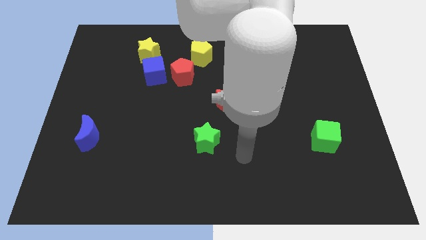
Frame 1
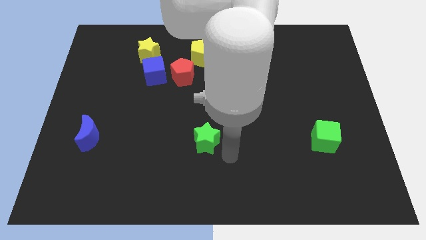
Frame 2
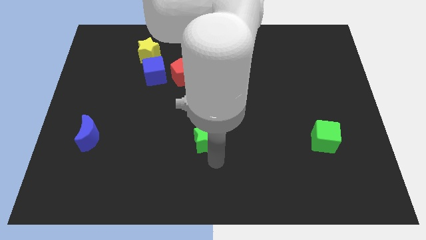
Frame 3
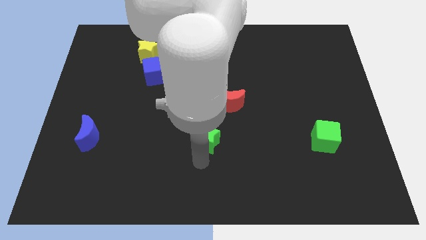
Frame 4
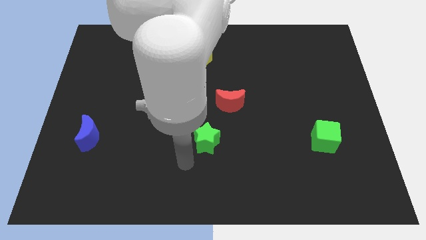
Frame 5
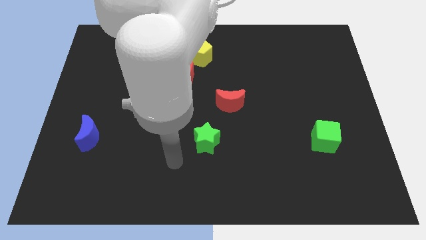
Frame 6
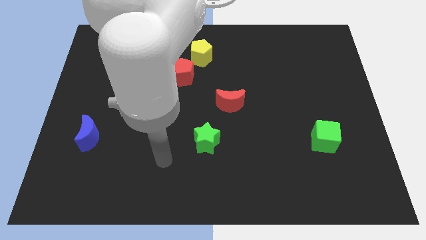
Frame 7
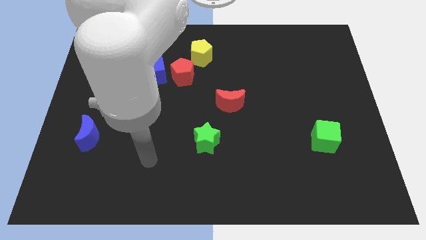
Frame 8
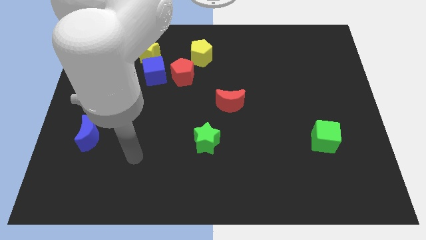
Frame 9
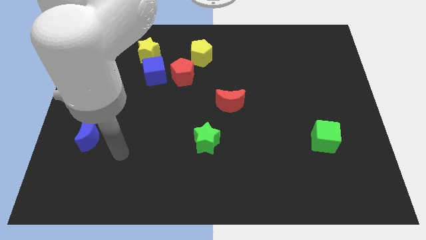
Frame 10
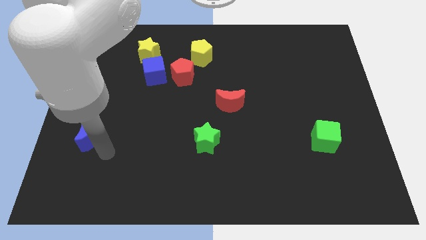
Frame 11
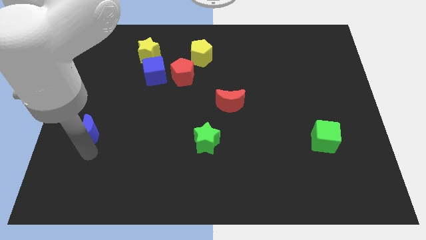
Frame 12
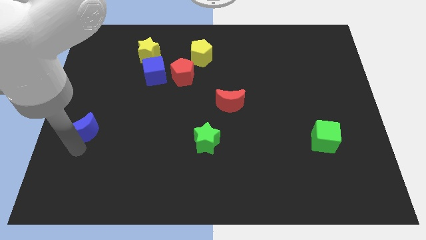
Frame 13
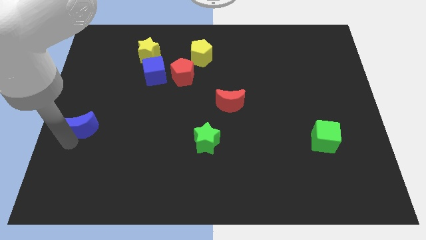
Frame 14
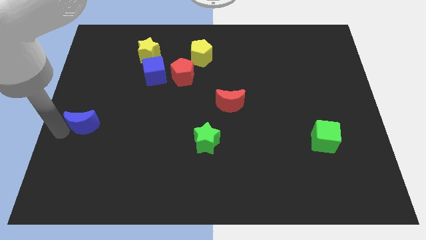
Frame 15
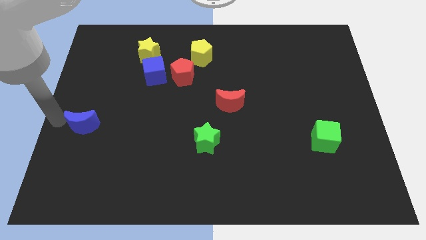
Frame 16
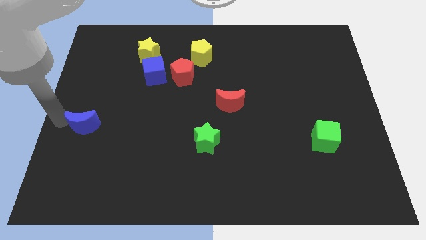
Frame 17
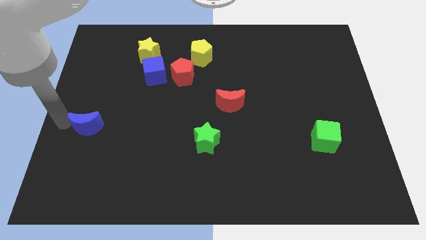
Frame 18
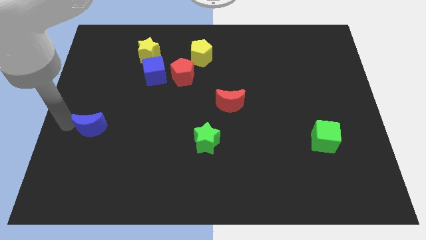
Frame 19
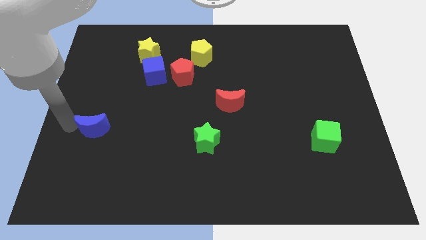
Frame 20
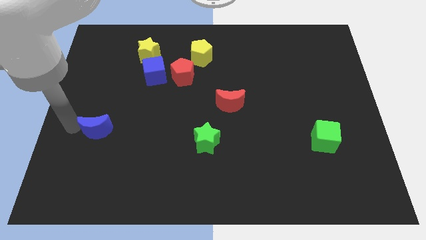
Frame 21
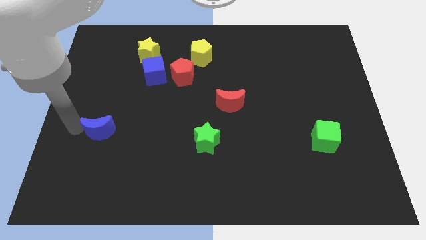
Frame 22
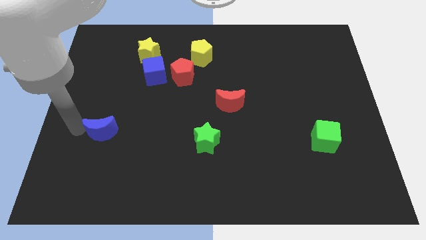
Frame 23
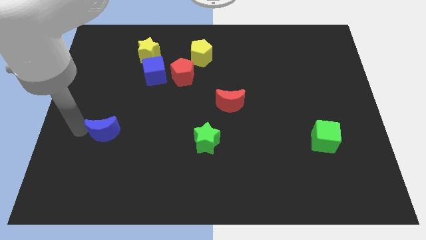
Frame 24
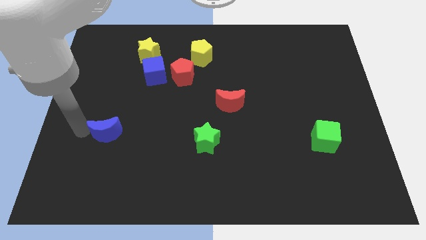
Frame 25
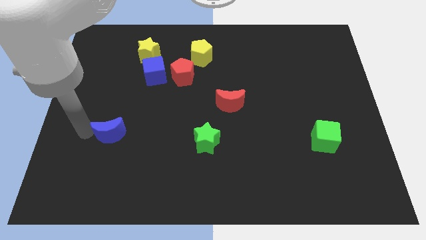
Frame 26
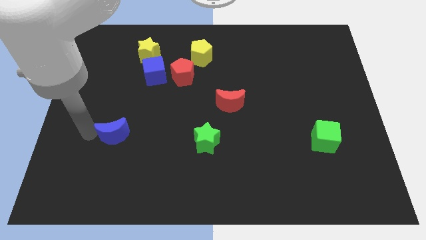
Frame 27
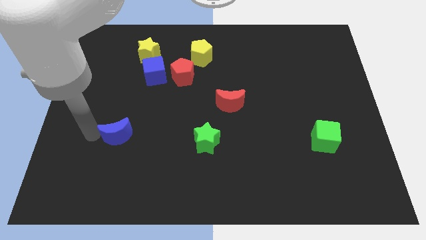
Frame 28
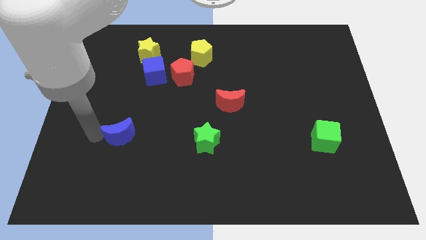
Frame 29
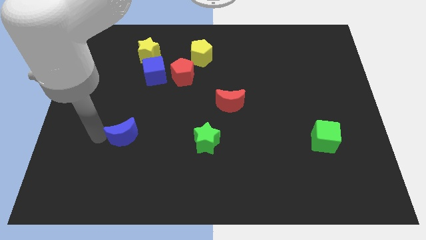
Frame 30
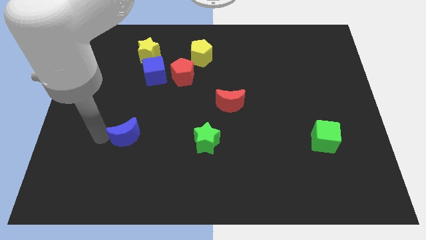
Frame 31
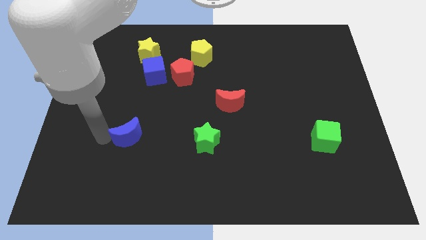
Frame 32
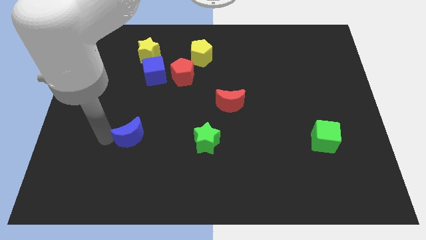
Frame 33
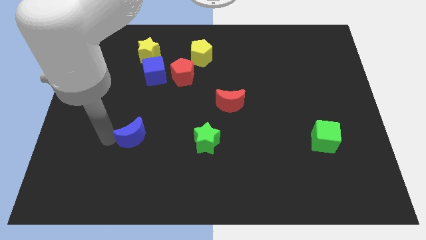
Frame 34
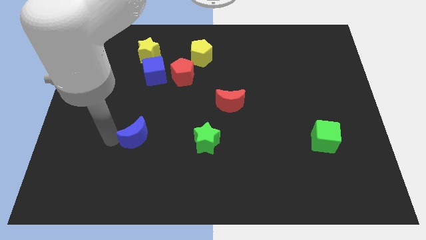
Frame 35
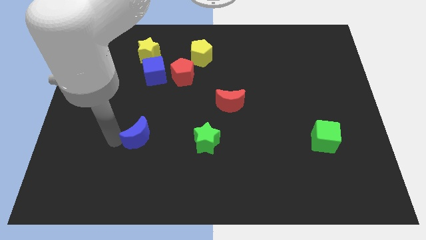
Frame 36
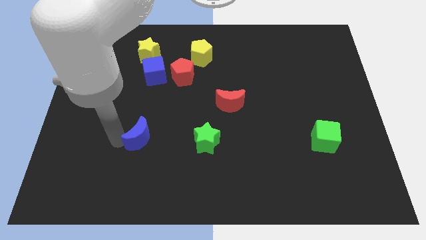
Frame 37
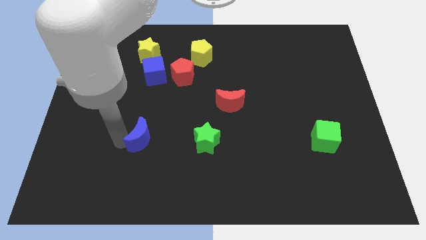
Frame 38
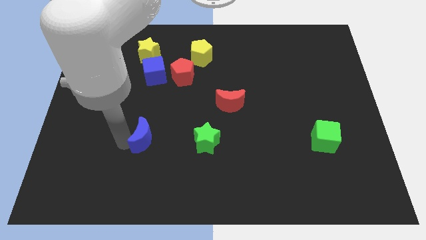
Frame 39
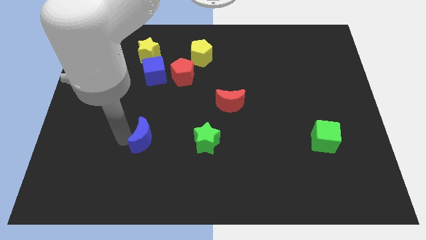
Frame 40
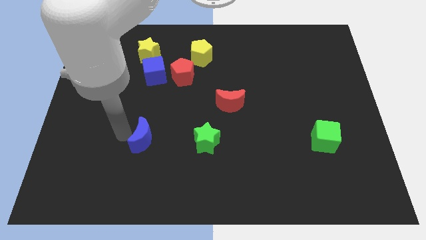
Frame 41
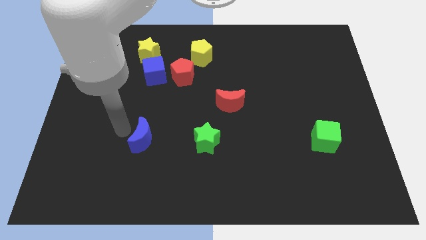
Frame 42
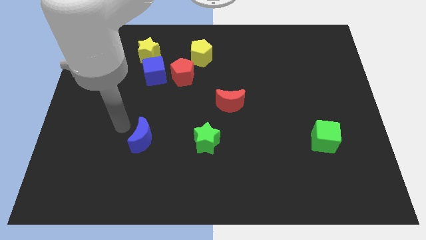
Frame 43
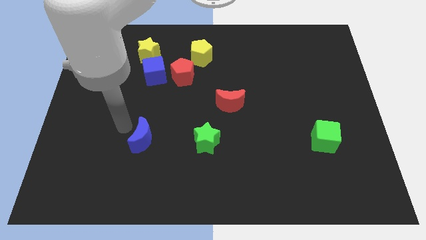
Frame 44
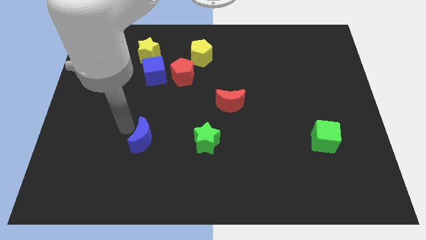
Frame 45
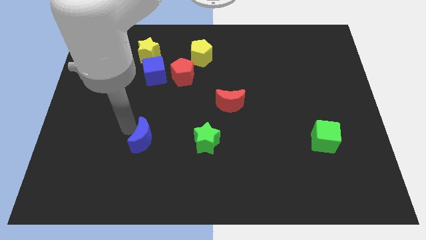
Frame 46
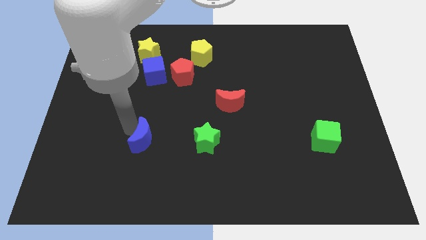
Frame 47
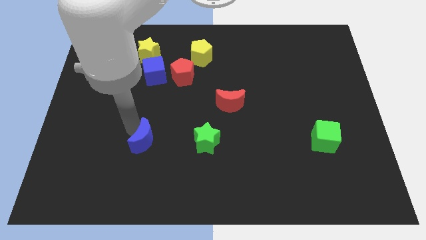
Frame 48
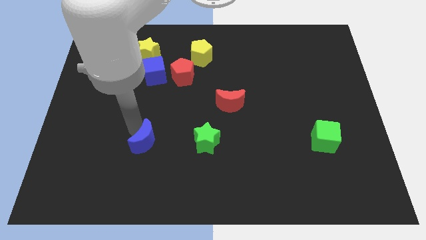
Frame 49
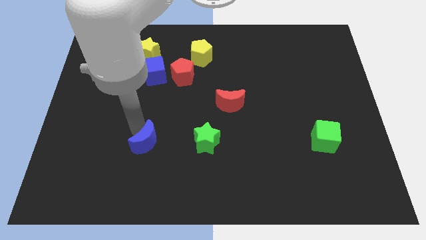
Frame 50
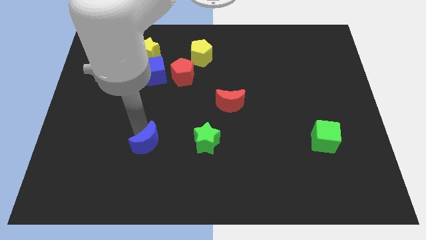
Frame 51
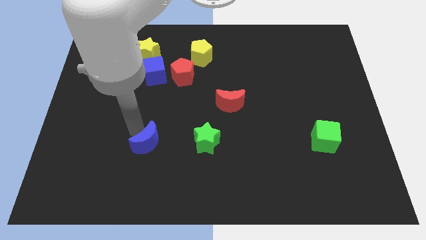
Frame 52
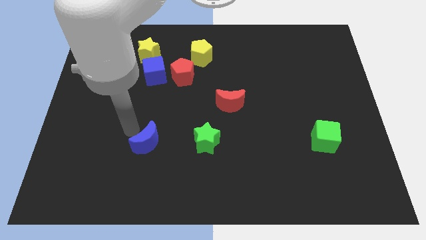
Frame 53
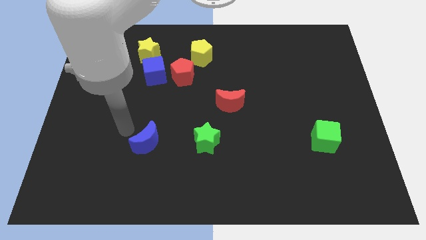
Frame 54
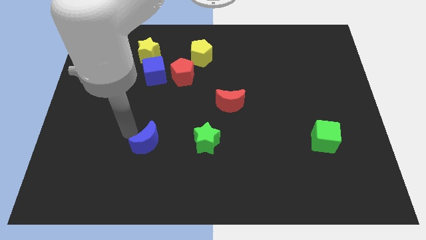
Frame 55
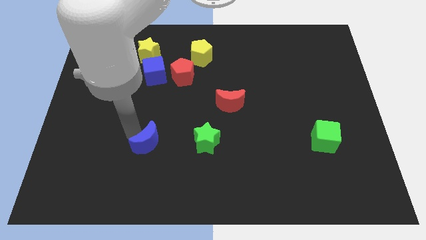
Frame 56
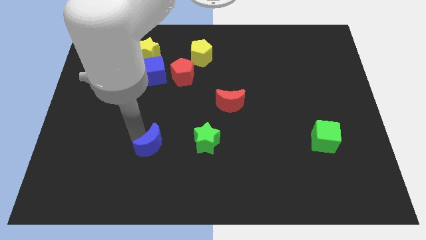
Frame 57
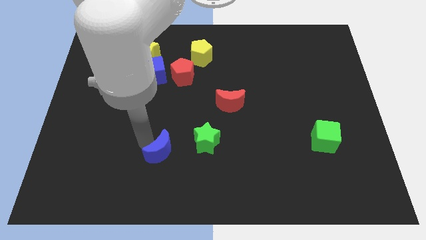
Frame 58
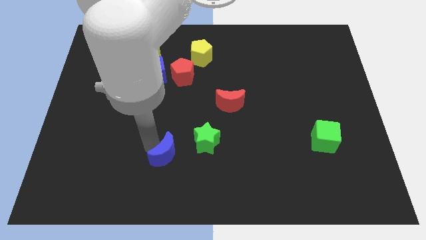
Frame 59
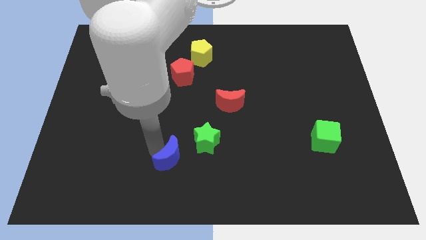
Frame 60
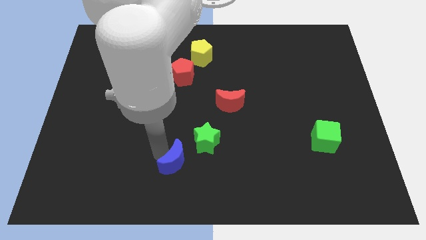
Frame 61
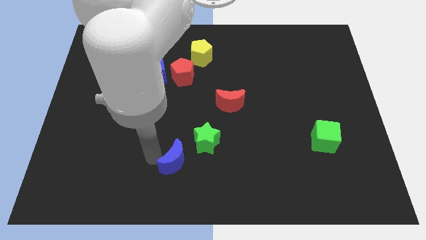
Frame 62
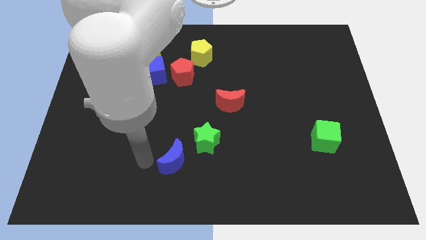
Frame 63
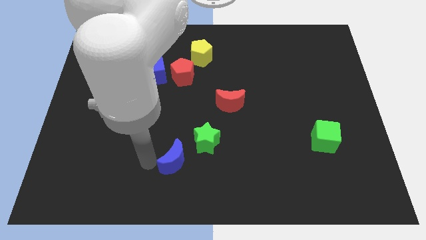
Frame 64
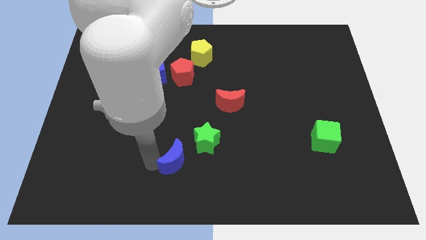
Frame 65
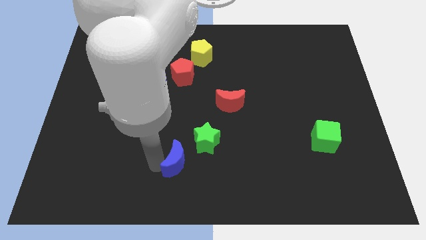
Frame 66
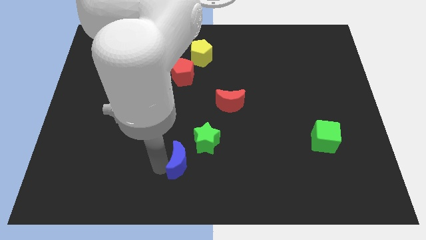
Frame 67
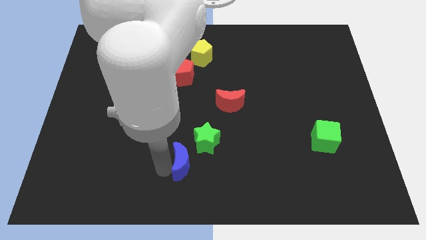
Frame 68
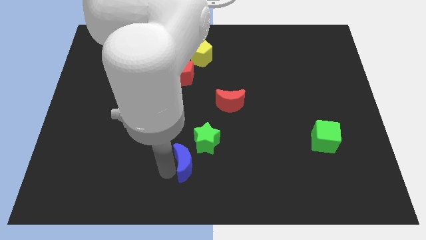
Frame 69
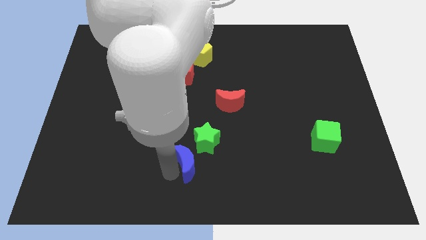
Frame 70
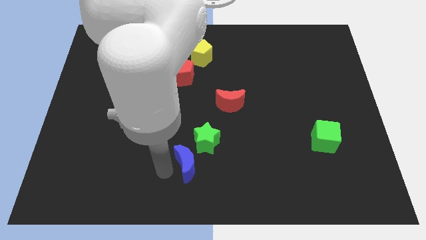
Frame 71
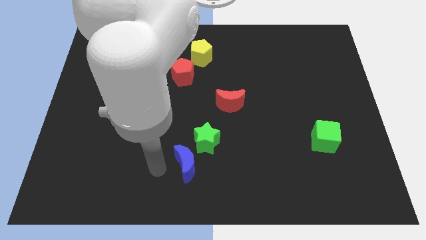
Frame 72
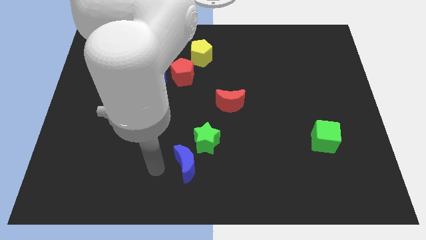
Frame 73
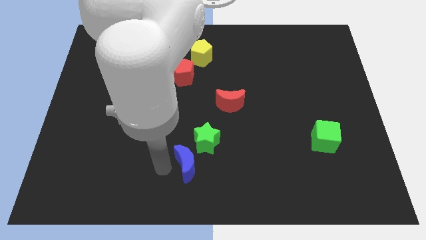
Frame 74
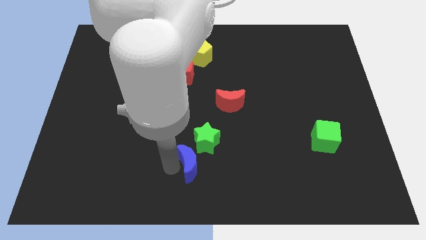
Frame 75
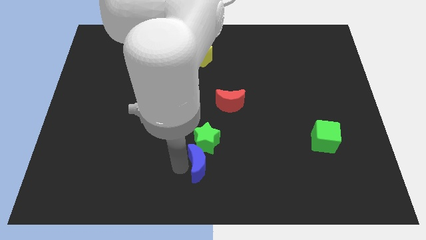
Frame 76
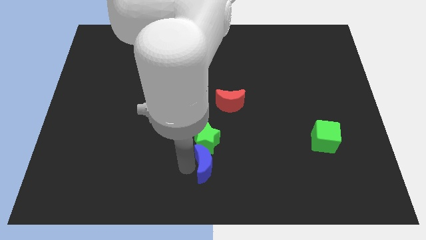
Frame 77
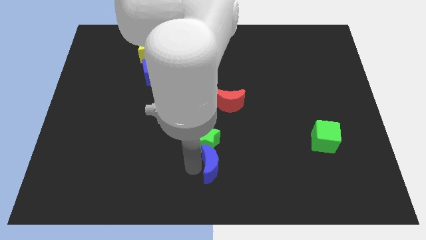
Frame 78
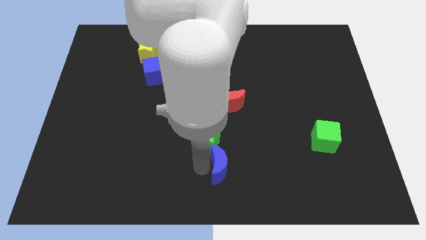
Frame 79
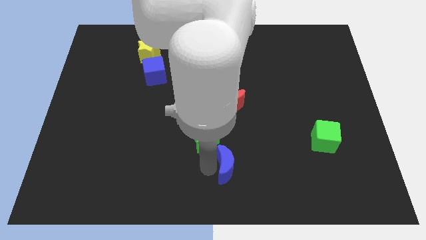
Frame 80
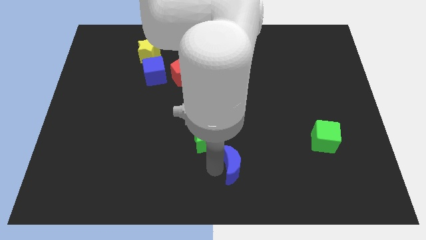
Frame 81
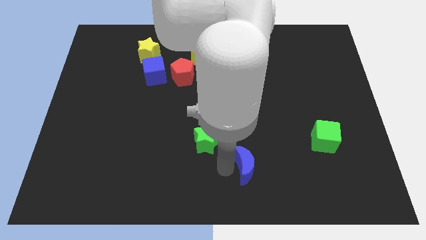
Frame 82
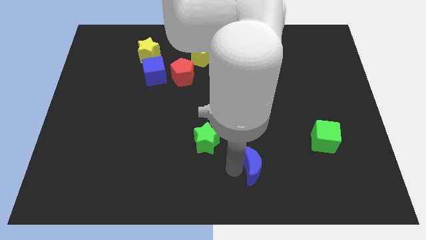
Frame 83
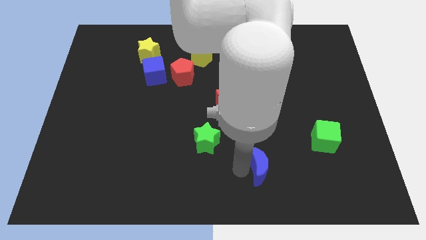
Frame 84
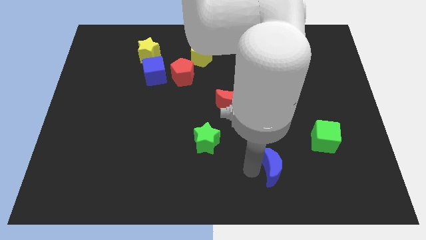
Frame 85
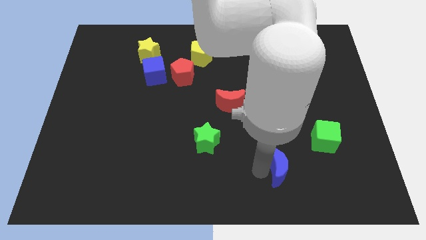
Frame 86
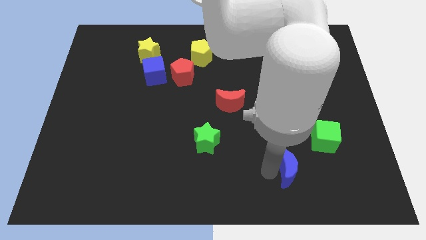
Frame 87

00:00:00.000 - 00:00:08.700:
push the blue moon diagonally down and to the left of the green cube

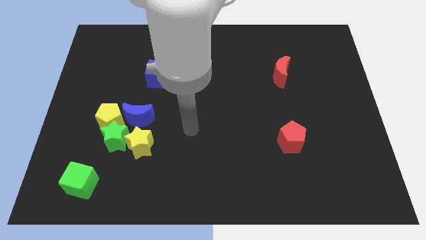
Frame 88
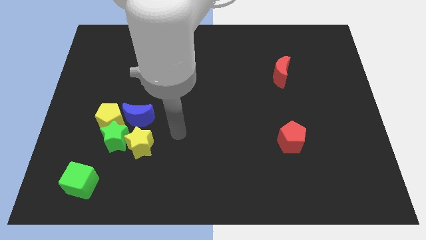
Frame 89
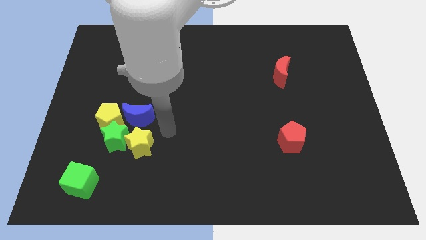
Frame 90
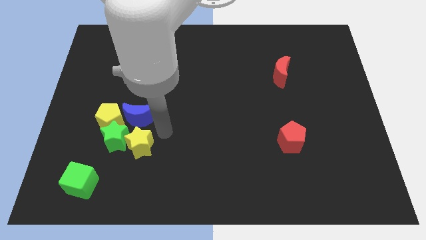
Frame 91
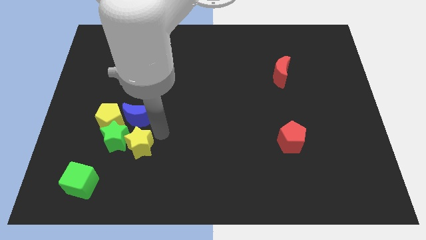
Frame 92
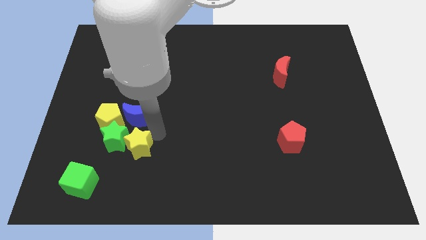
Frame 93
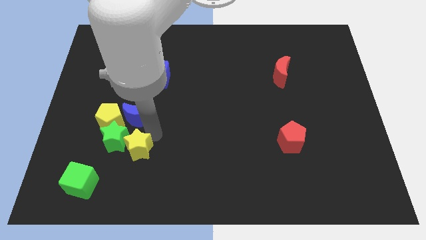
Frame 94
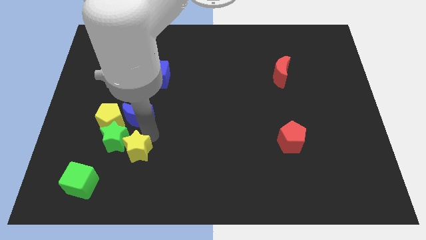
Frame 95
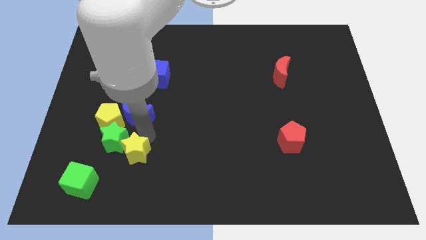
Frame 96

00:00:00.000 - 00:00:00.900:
move the yellow star diagonally up and to the right of the green cube
